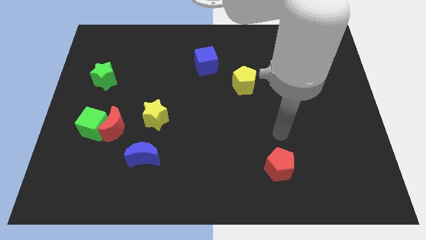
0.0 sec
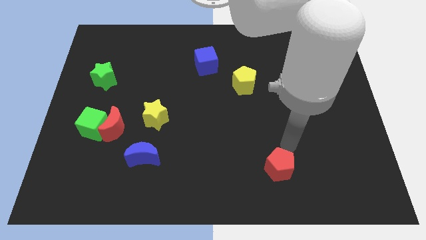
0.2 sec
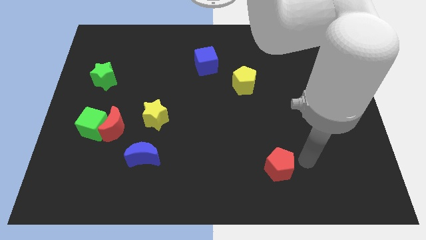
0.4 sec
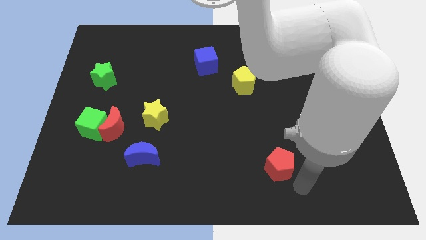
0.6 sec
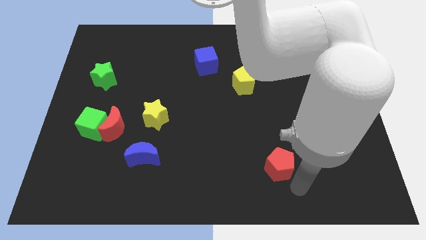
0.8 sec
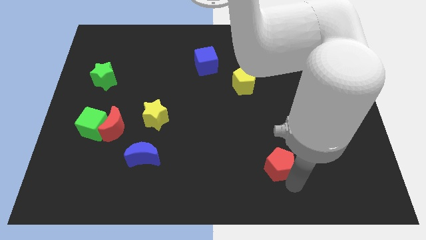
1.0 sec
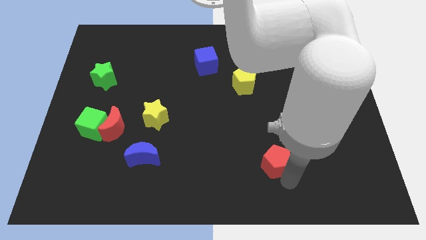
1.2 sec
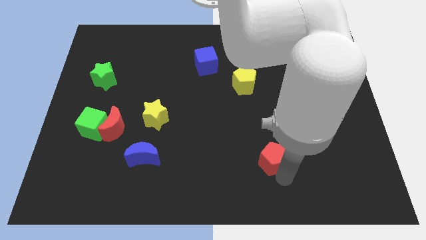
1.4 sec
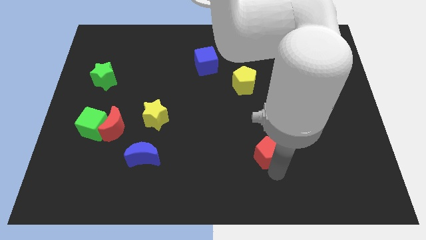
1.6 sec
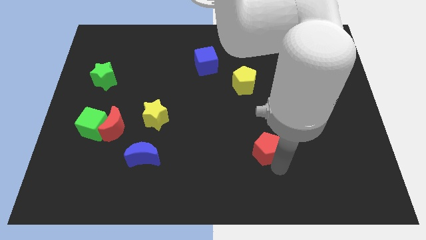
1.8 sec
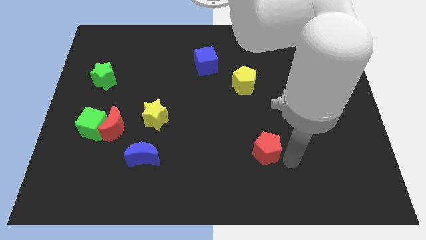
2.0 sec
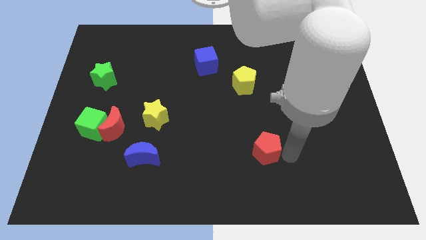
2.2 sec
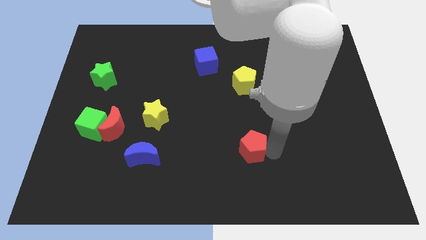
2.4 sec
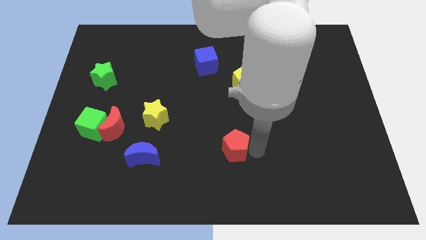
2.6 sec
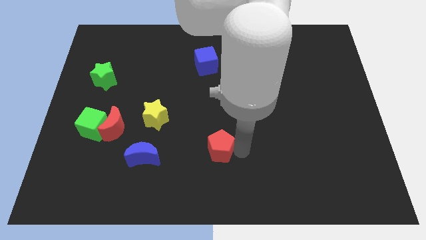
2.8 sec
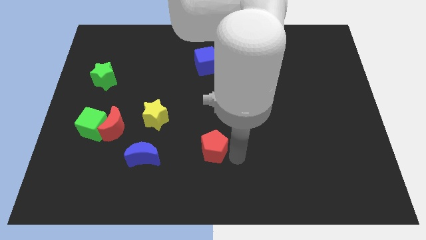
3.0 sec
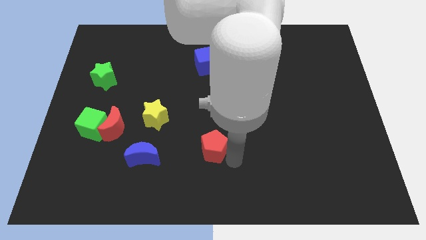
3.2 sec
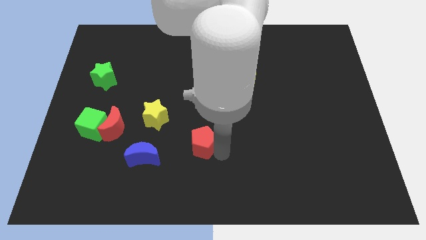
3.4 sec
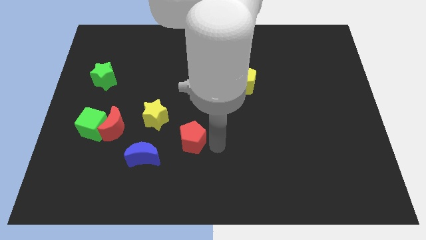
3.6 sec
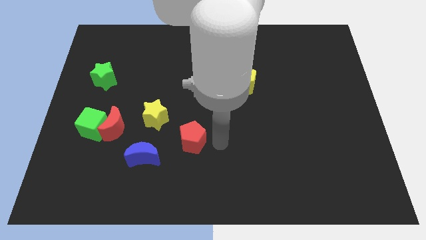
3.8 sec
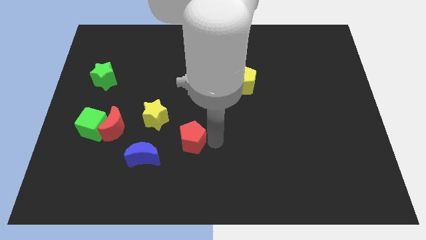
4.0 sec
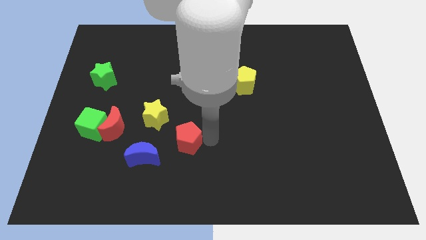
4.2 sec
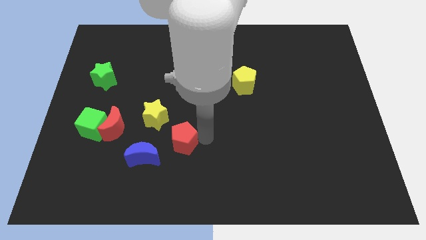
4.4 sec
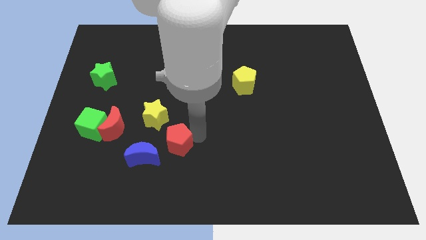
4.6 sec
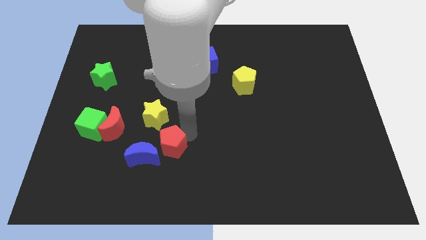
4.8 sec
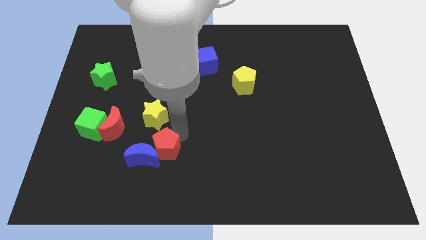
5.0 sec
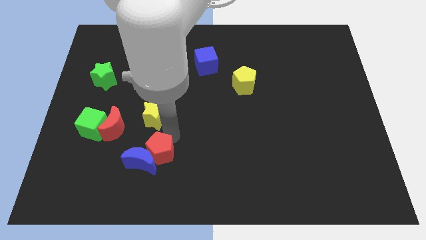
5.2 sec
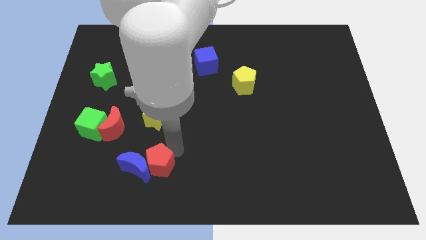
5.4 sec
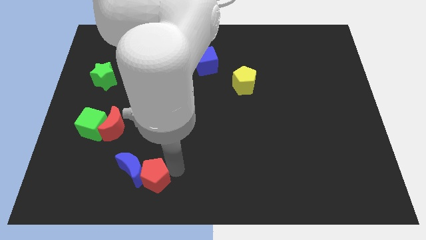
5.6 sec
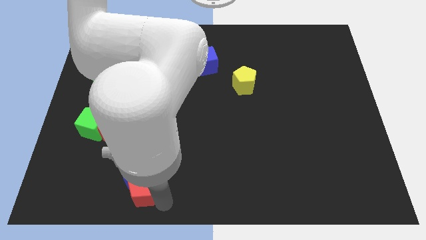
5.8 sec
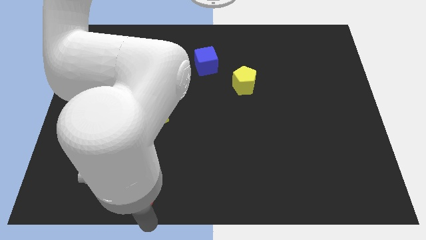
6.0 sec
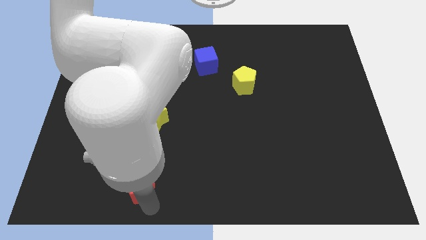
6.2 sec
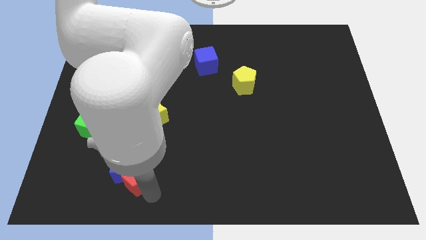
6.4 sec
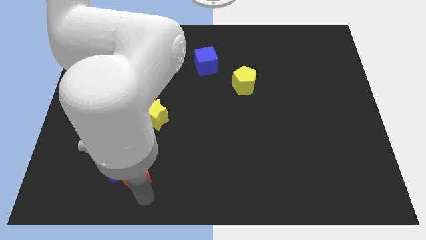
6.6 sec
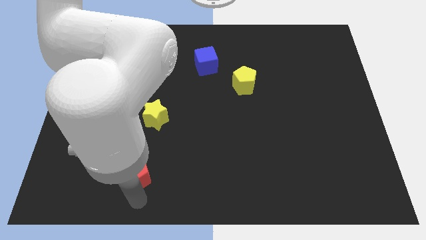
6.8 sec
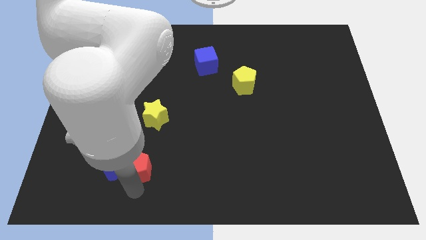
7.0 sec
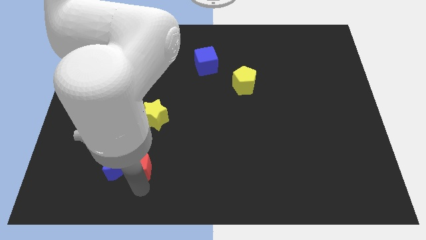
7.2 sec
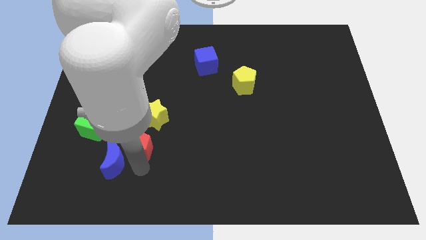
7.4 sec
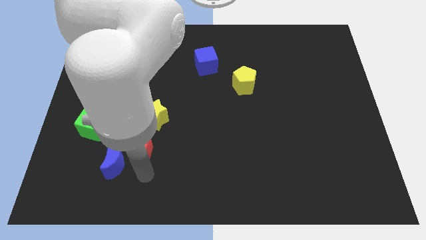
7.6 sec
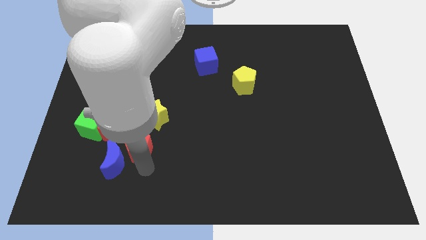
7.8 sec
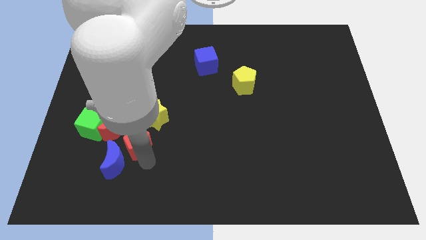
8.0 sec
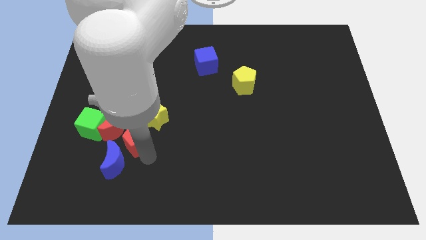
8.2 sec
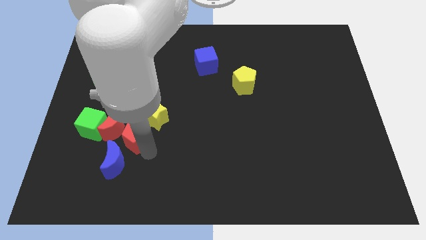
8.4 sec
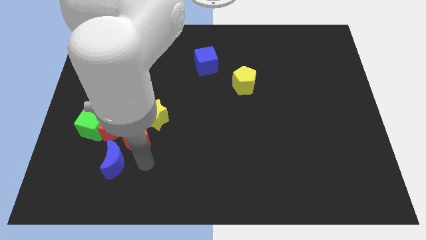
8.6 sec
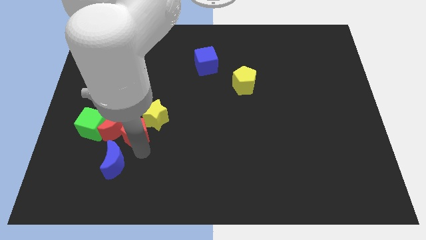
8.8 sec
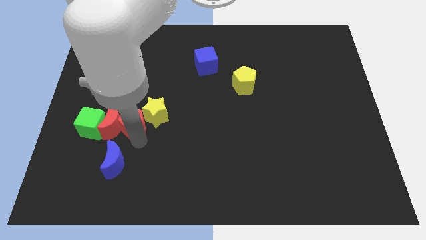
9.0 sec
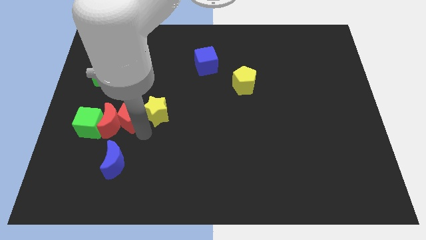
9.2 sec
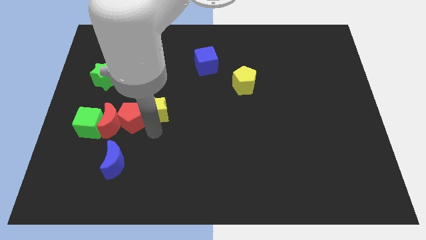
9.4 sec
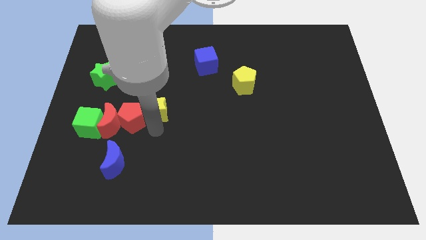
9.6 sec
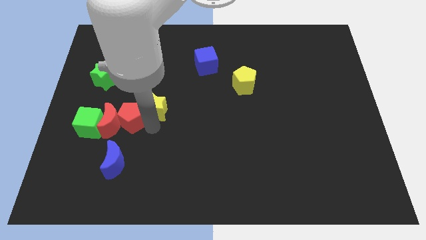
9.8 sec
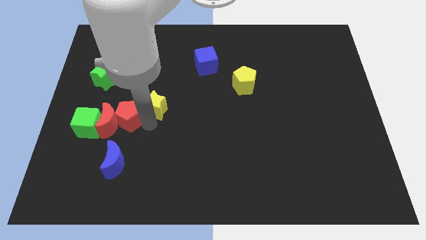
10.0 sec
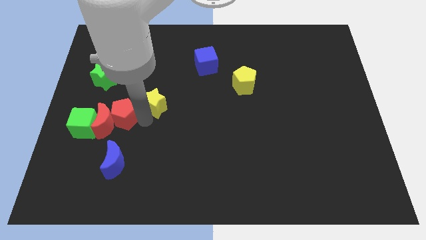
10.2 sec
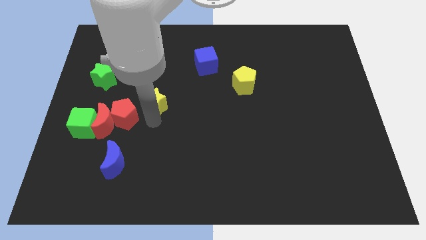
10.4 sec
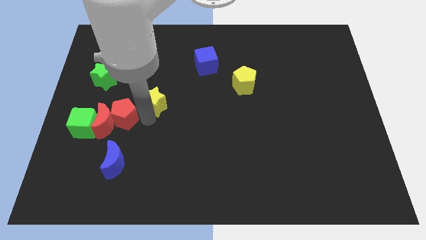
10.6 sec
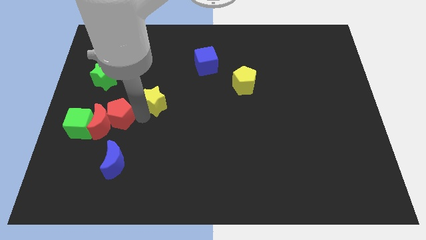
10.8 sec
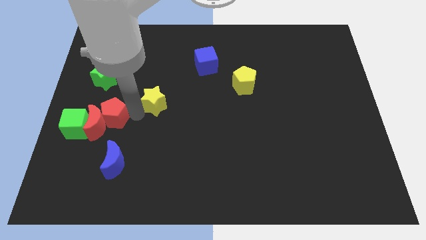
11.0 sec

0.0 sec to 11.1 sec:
slide the red pentagon below the green star

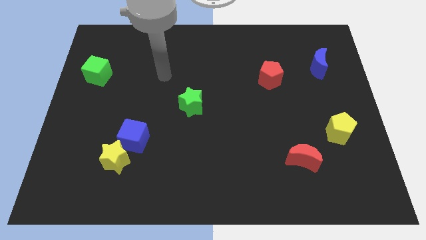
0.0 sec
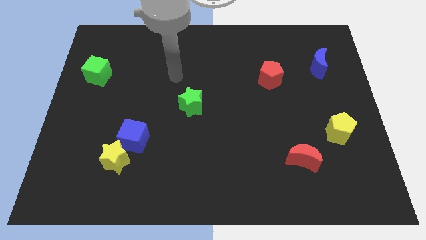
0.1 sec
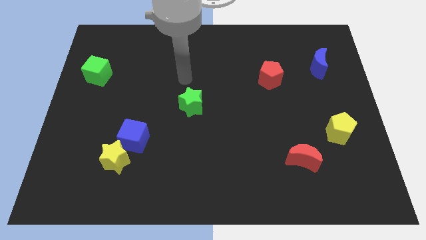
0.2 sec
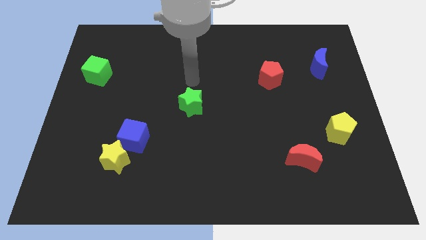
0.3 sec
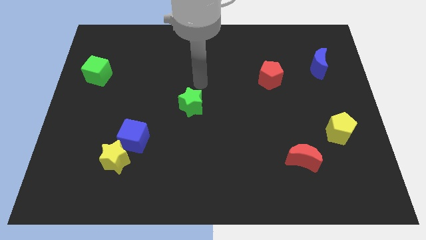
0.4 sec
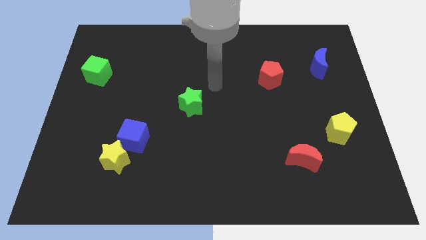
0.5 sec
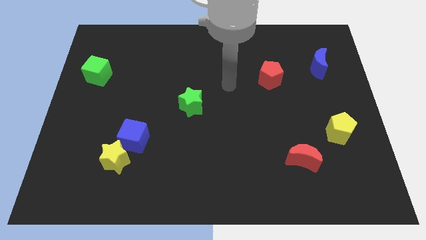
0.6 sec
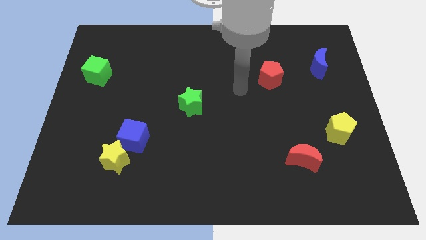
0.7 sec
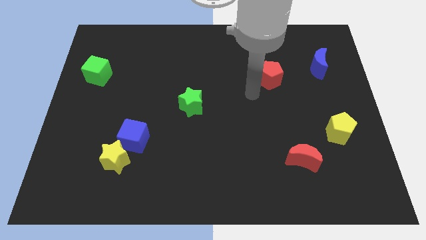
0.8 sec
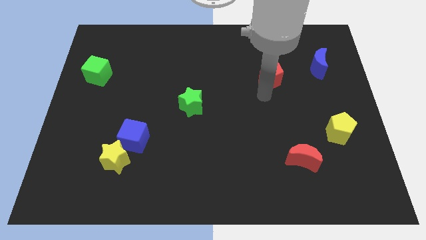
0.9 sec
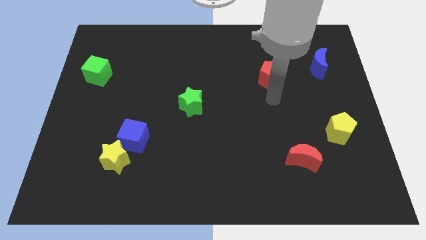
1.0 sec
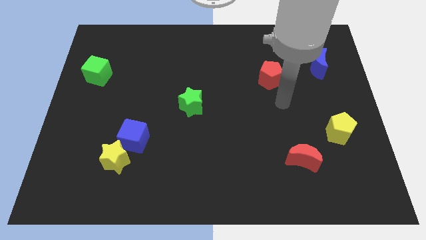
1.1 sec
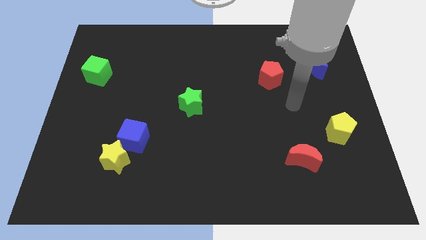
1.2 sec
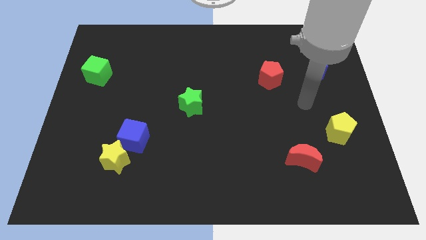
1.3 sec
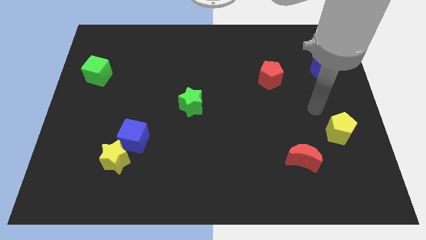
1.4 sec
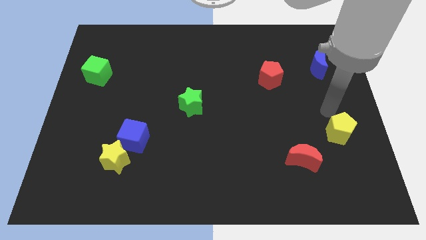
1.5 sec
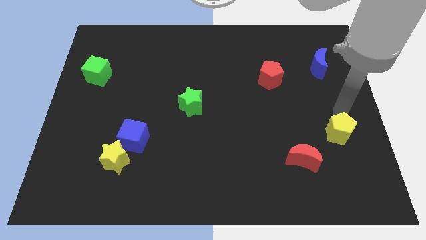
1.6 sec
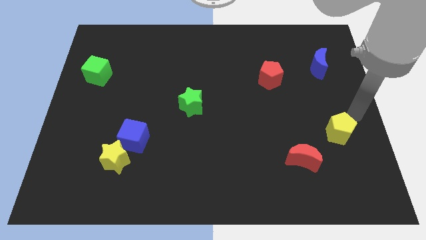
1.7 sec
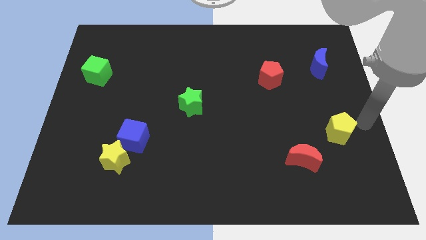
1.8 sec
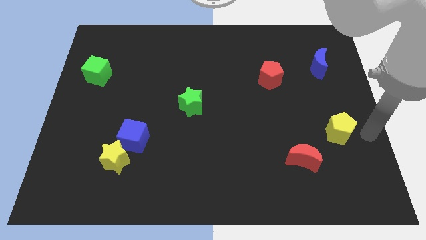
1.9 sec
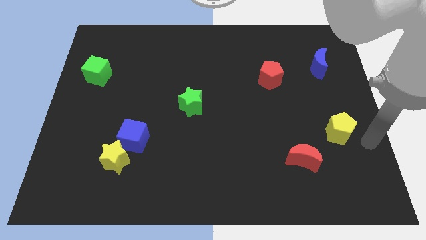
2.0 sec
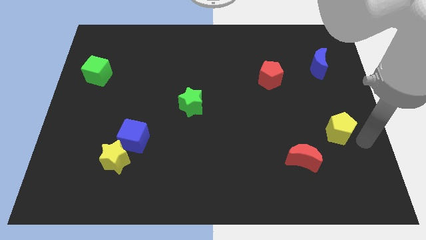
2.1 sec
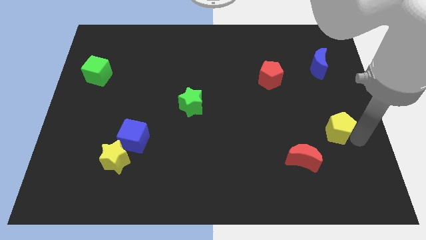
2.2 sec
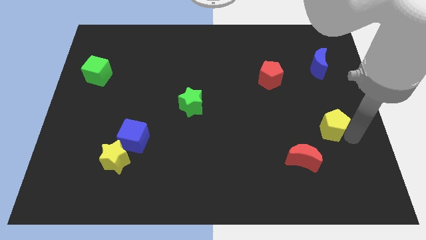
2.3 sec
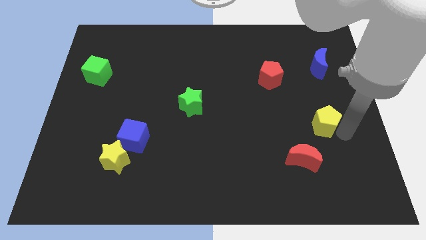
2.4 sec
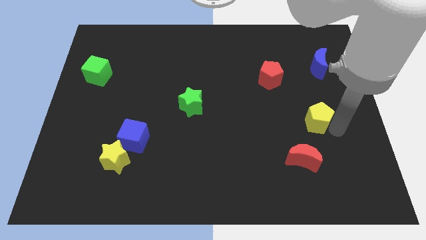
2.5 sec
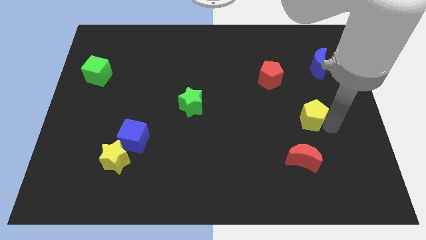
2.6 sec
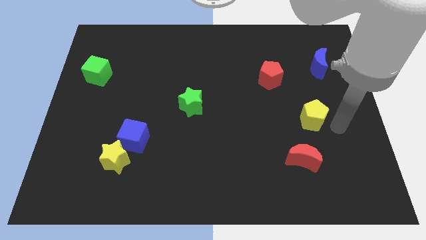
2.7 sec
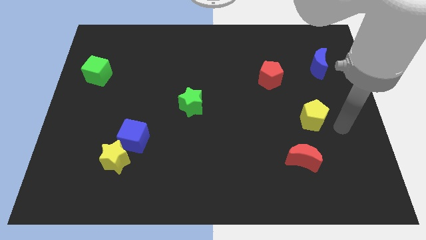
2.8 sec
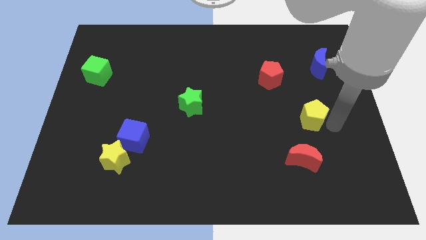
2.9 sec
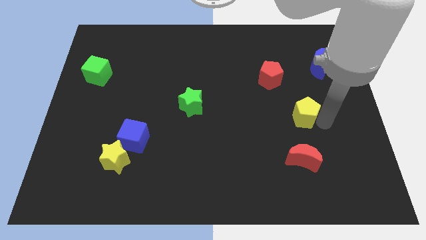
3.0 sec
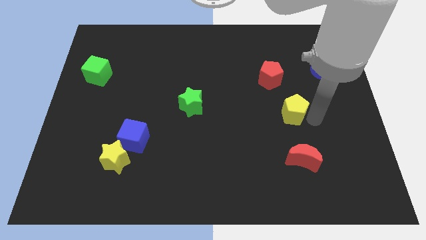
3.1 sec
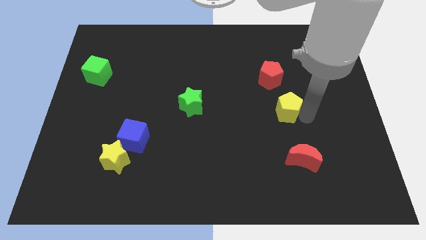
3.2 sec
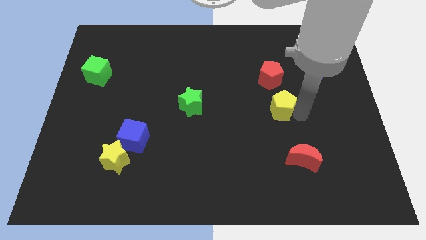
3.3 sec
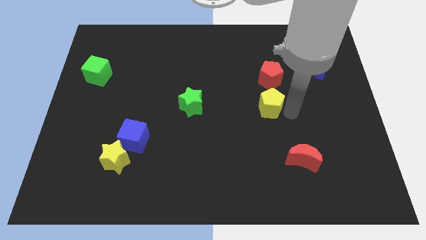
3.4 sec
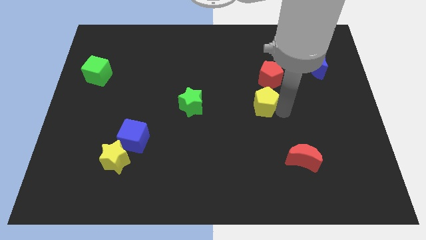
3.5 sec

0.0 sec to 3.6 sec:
slide the yellow pentagon to the bottom left of the red pentagon
